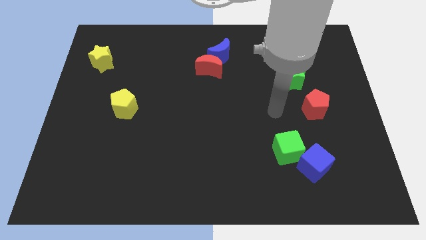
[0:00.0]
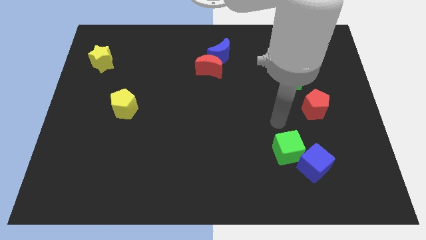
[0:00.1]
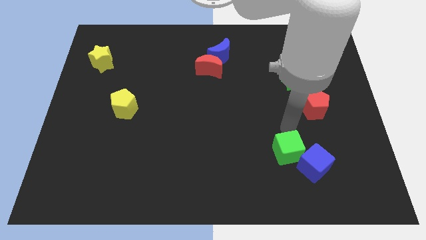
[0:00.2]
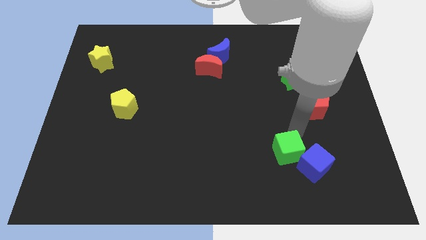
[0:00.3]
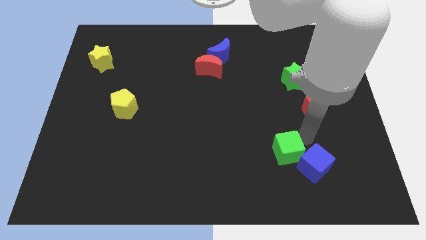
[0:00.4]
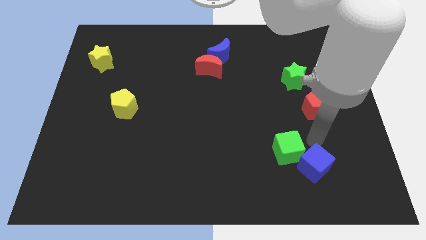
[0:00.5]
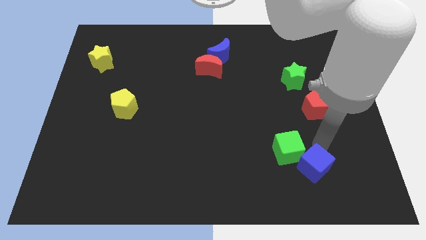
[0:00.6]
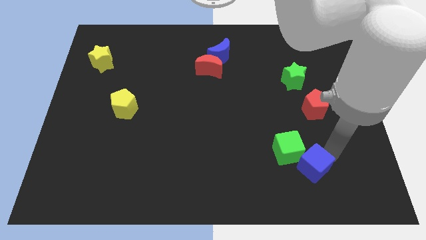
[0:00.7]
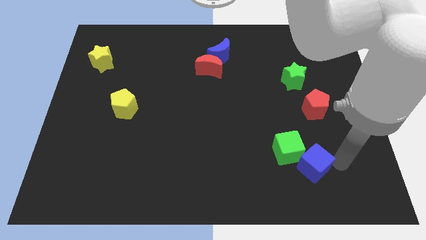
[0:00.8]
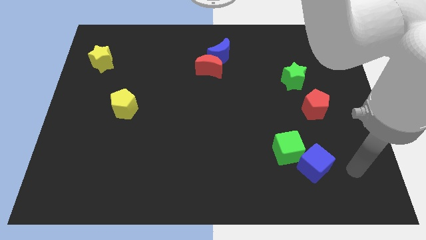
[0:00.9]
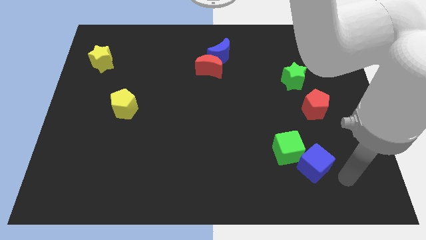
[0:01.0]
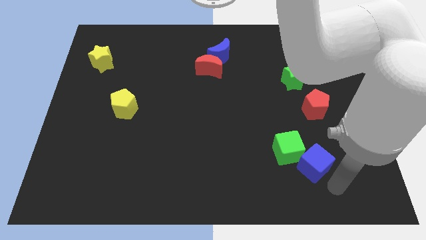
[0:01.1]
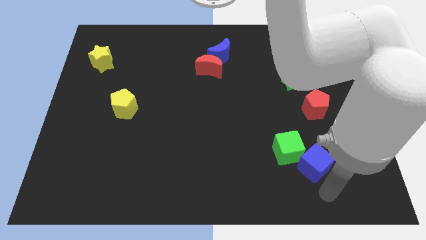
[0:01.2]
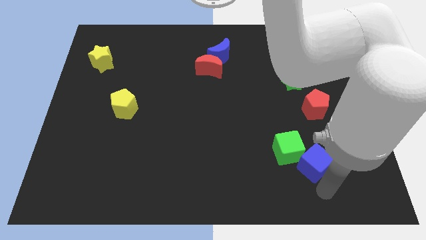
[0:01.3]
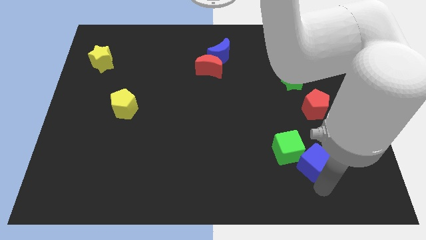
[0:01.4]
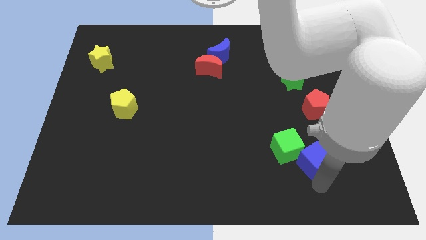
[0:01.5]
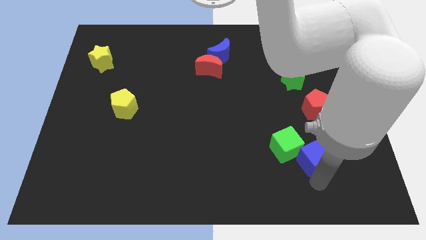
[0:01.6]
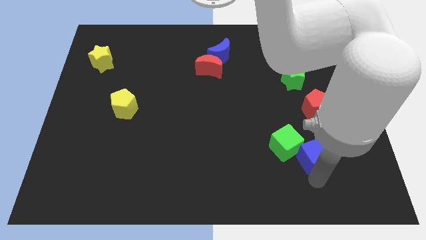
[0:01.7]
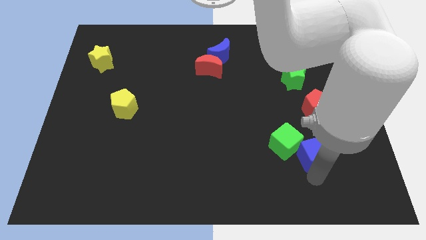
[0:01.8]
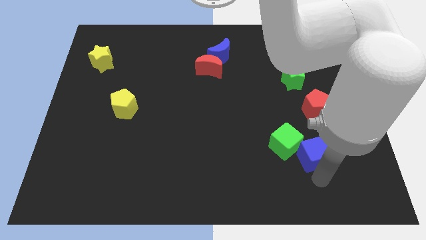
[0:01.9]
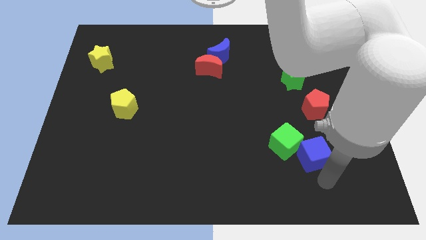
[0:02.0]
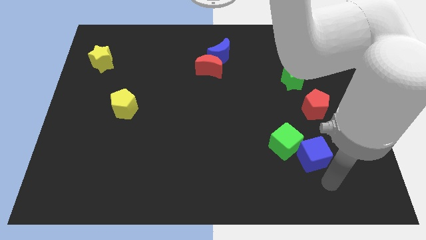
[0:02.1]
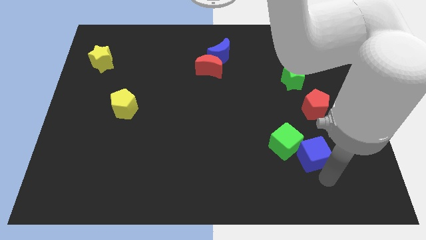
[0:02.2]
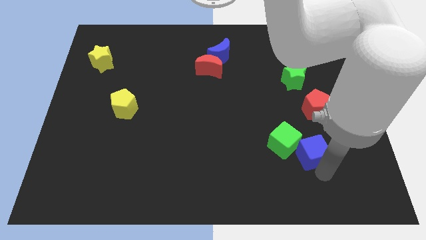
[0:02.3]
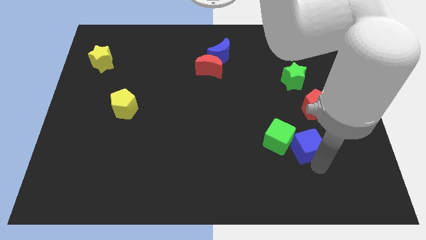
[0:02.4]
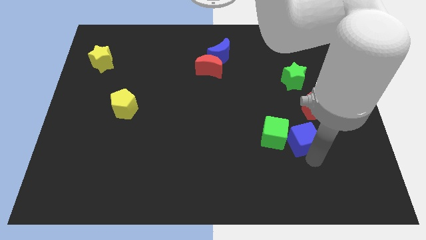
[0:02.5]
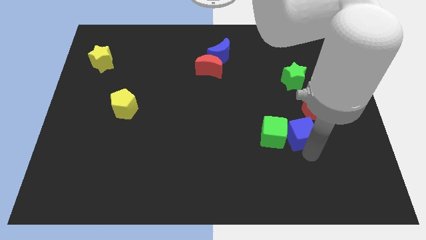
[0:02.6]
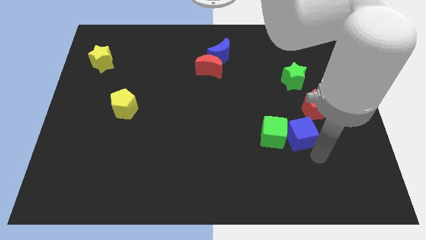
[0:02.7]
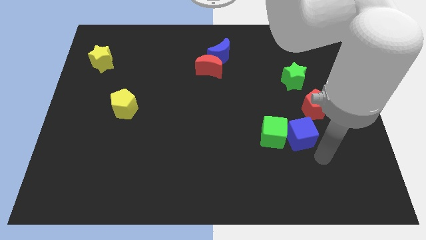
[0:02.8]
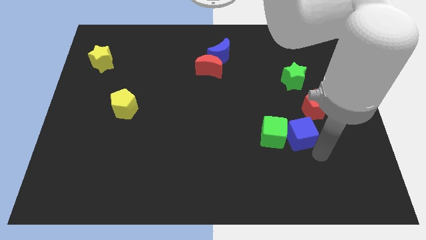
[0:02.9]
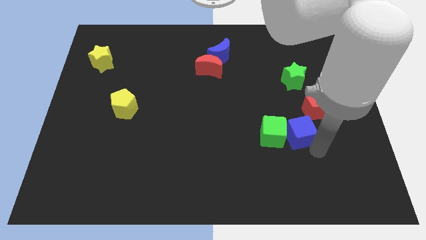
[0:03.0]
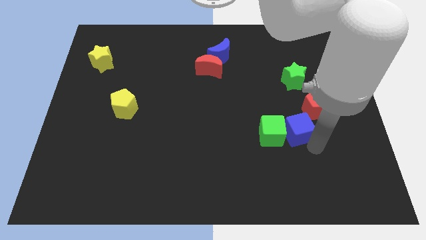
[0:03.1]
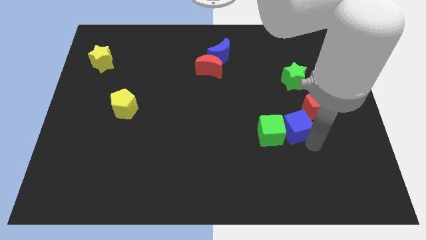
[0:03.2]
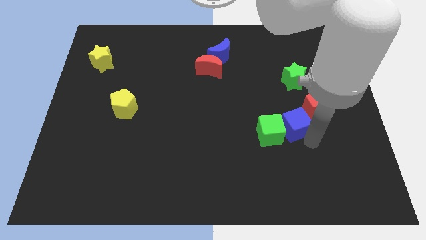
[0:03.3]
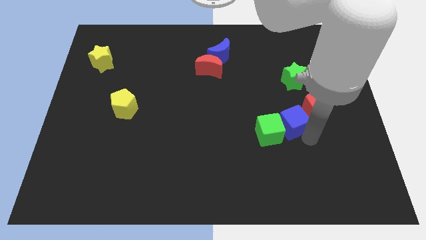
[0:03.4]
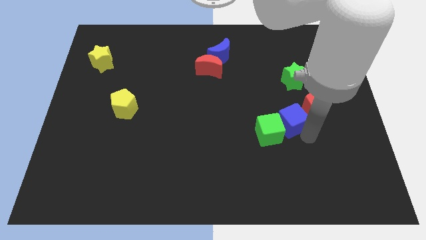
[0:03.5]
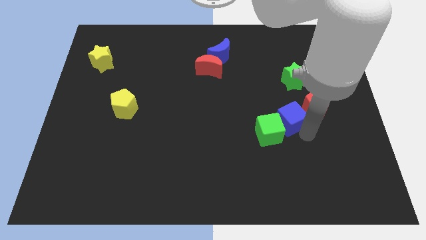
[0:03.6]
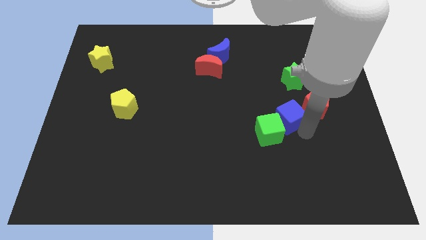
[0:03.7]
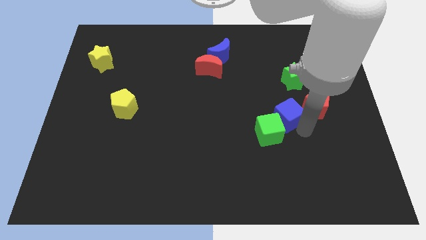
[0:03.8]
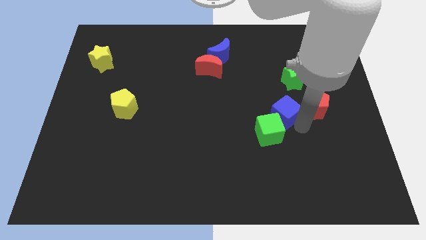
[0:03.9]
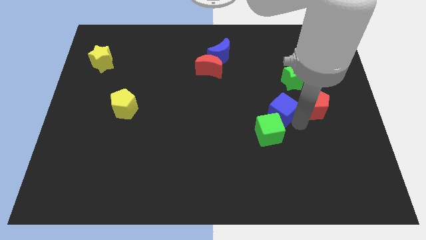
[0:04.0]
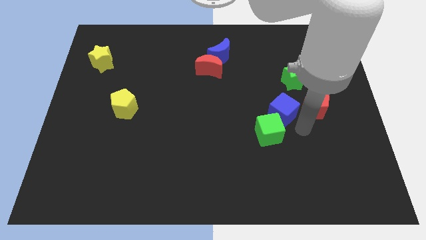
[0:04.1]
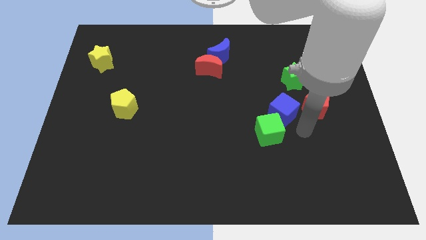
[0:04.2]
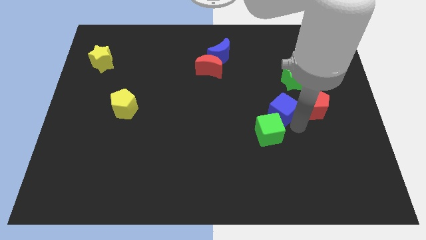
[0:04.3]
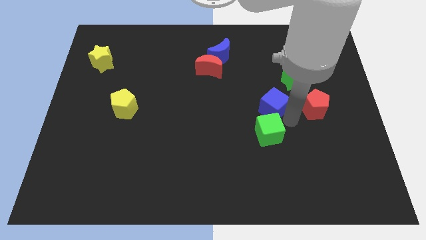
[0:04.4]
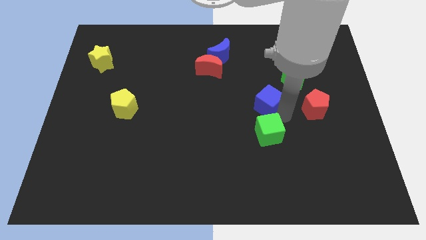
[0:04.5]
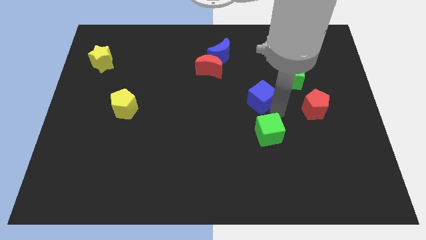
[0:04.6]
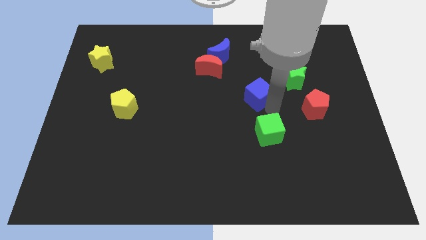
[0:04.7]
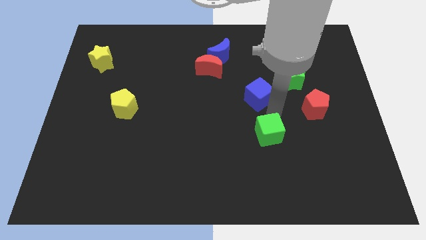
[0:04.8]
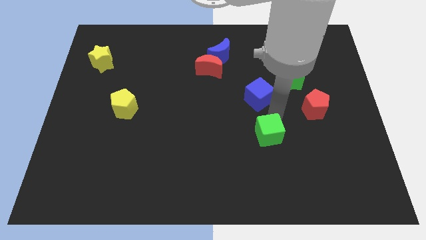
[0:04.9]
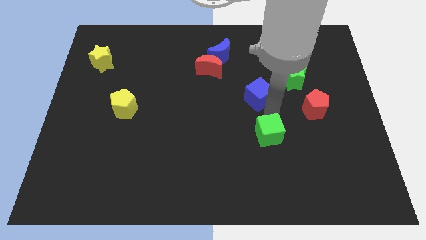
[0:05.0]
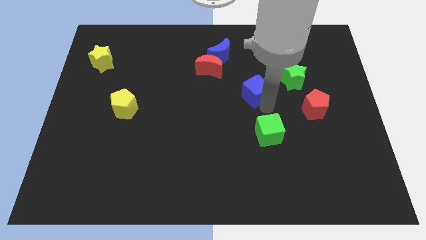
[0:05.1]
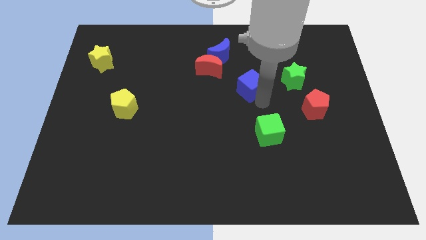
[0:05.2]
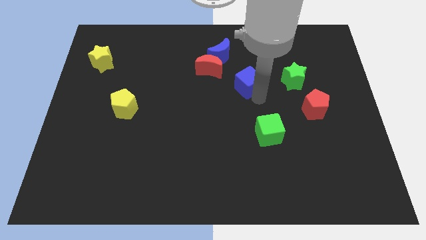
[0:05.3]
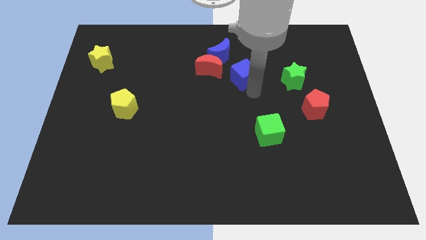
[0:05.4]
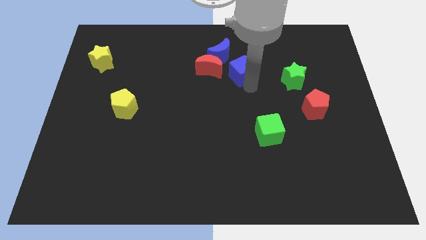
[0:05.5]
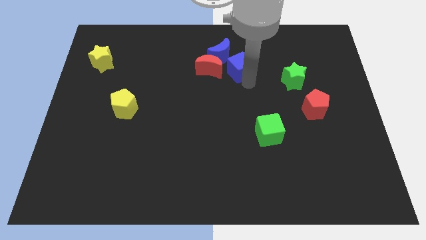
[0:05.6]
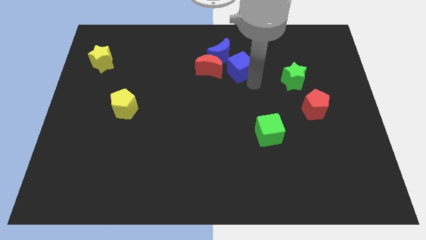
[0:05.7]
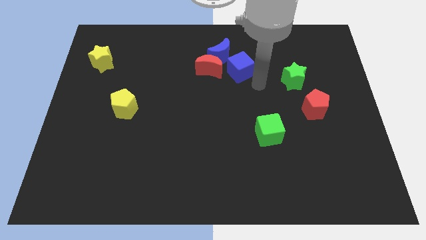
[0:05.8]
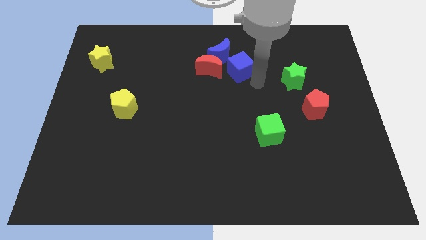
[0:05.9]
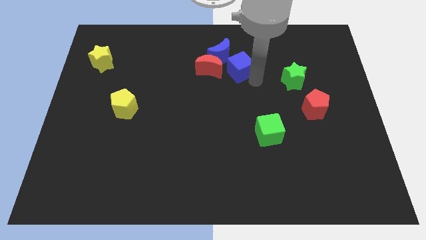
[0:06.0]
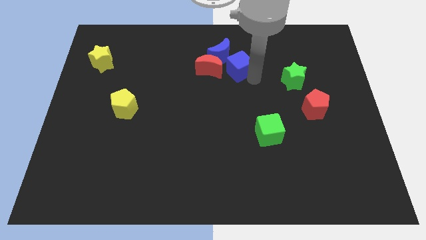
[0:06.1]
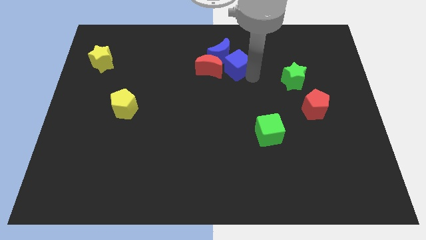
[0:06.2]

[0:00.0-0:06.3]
push the blue cube towards the blue moon

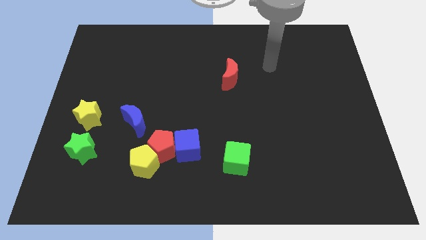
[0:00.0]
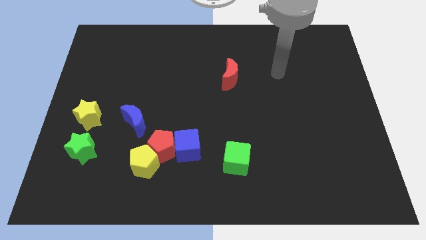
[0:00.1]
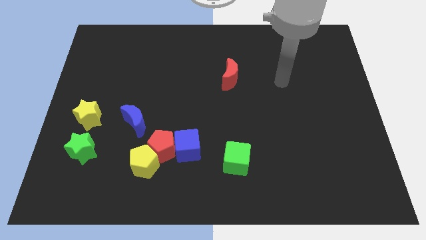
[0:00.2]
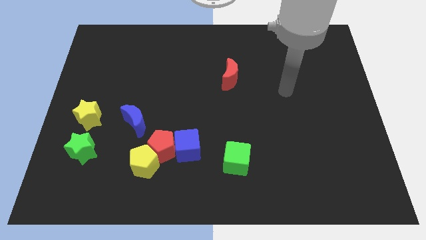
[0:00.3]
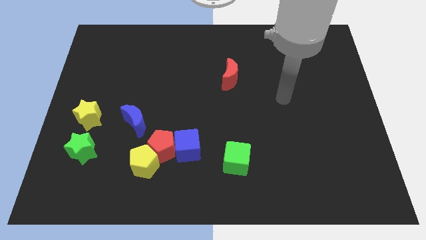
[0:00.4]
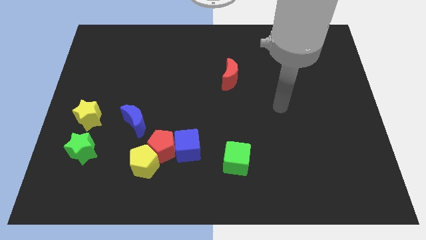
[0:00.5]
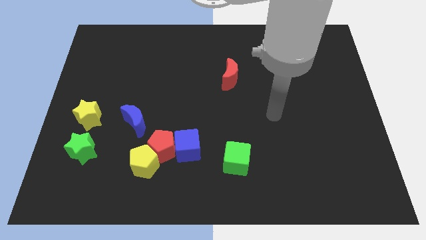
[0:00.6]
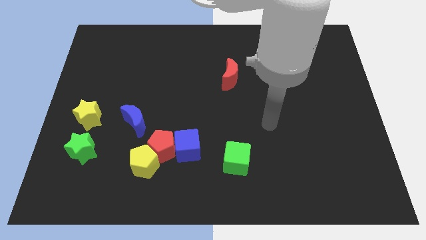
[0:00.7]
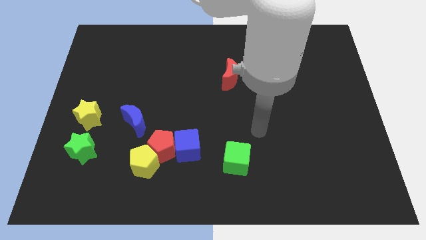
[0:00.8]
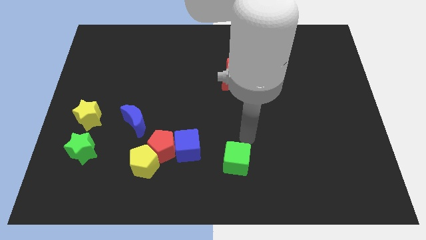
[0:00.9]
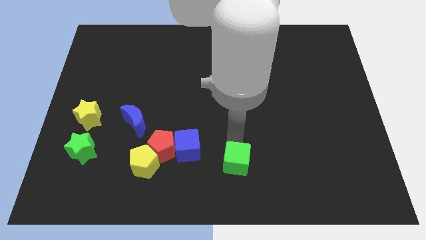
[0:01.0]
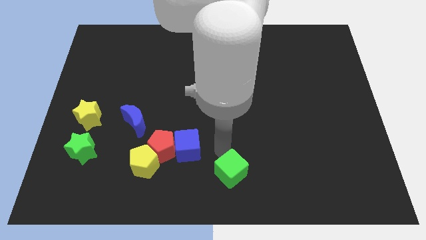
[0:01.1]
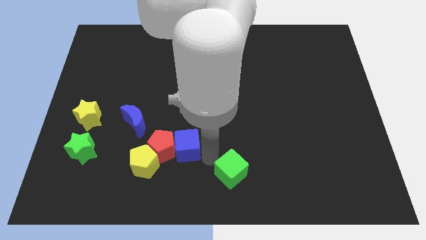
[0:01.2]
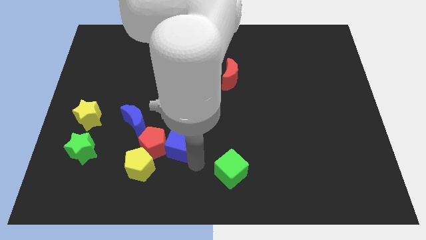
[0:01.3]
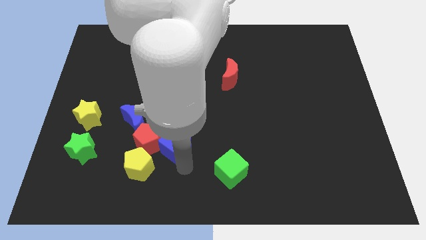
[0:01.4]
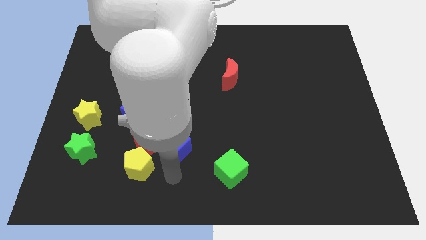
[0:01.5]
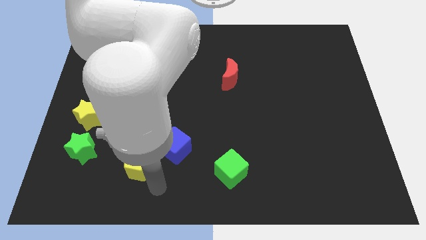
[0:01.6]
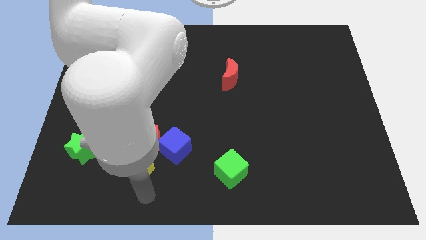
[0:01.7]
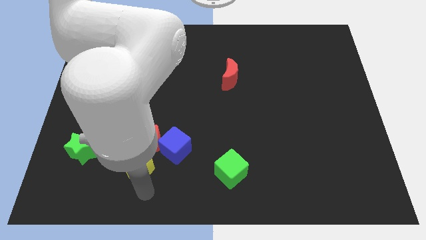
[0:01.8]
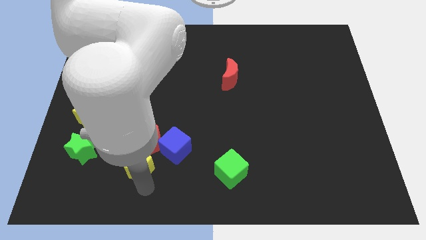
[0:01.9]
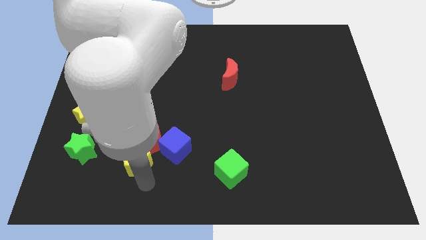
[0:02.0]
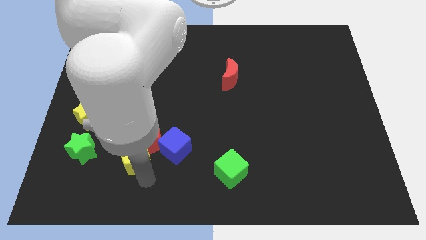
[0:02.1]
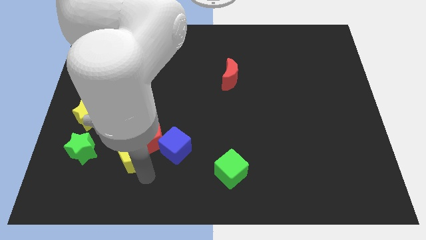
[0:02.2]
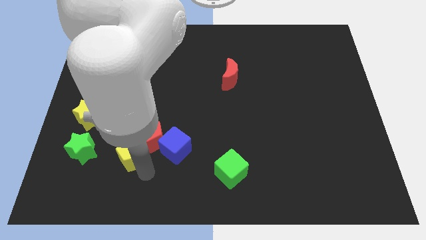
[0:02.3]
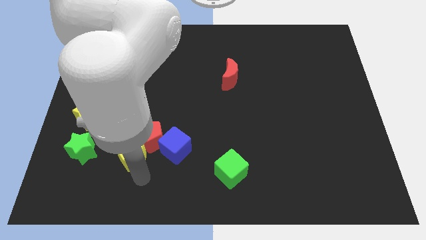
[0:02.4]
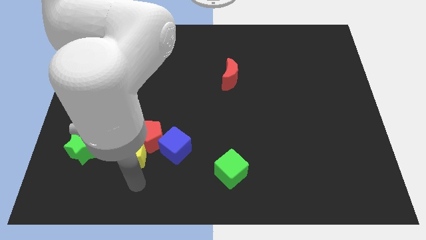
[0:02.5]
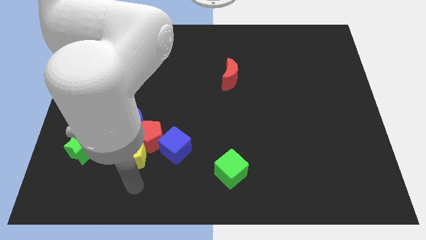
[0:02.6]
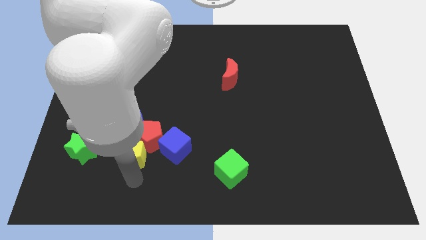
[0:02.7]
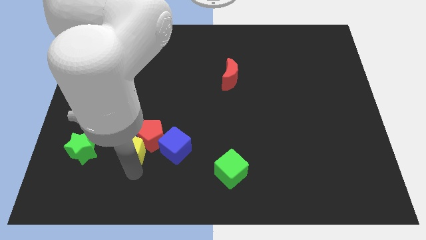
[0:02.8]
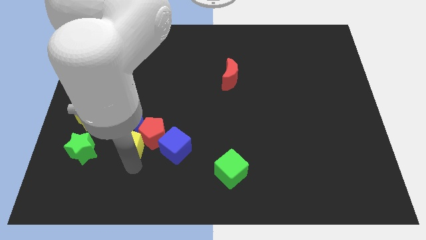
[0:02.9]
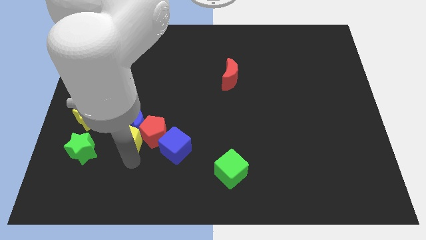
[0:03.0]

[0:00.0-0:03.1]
put the yellow pentagon towards the blue moon
